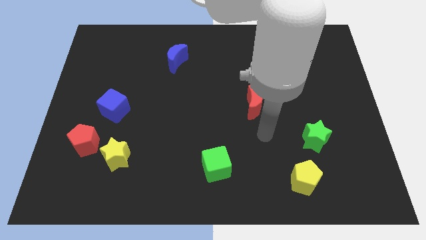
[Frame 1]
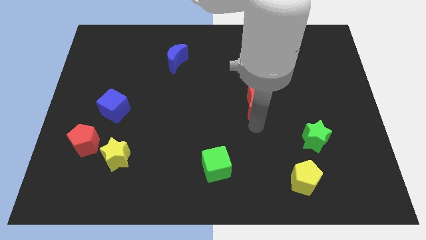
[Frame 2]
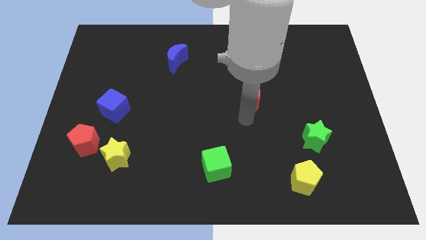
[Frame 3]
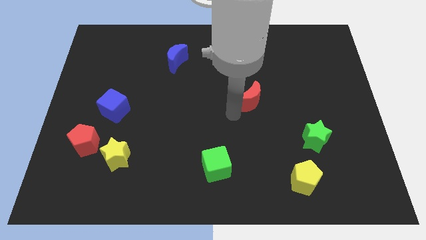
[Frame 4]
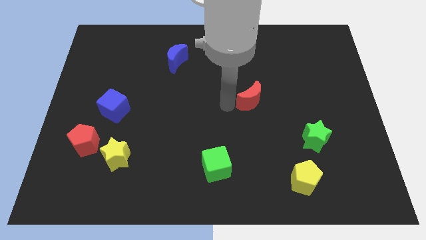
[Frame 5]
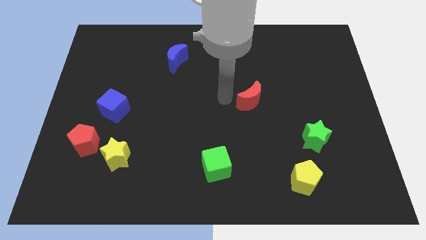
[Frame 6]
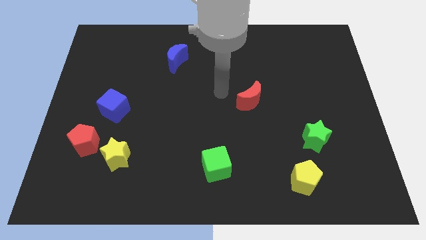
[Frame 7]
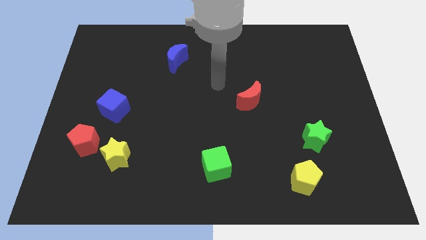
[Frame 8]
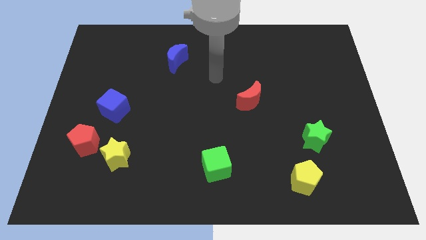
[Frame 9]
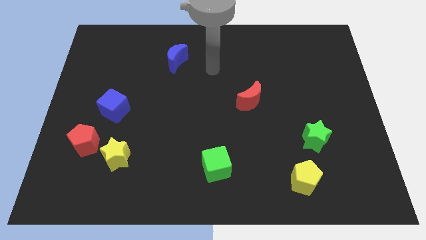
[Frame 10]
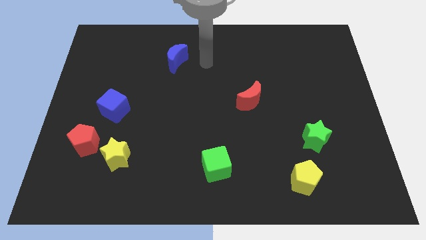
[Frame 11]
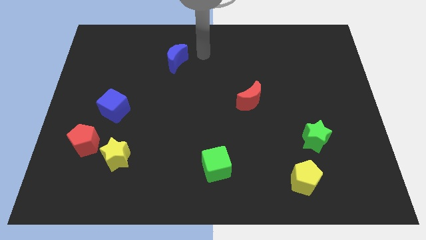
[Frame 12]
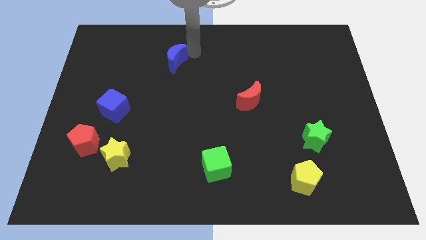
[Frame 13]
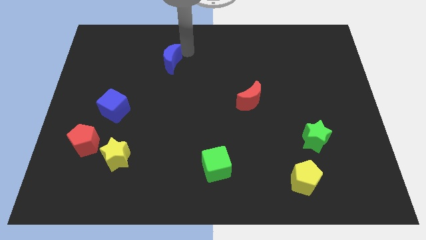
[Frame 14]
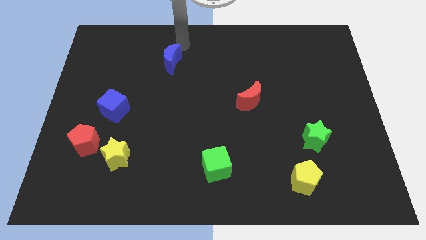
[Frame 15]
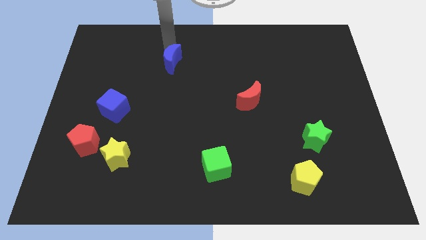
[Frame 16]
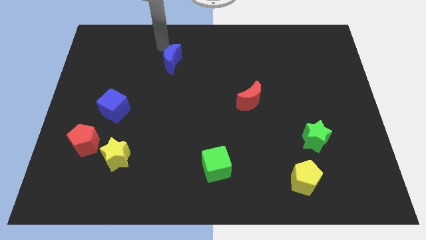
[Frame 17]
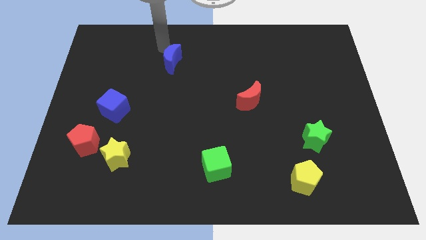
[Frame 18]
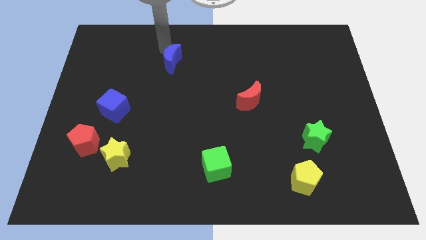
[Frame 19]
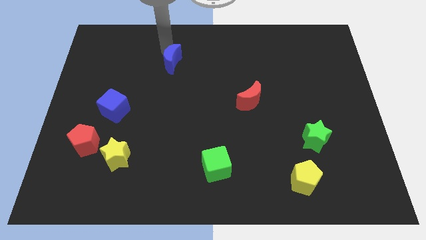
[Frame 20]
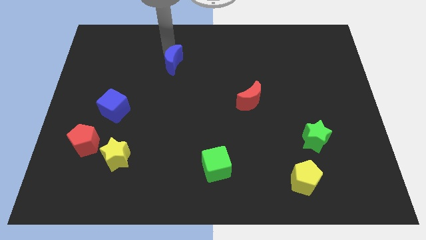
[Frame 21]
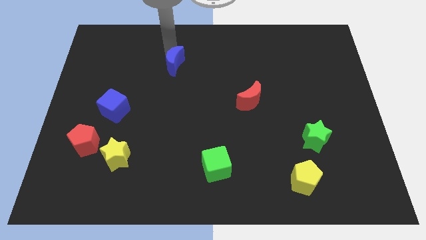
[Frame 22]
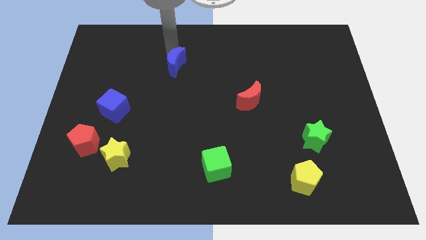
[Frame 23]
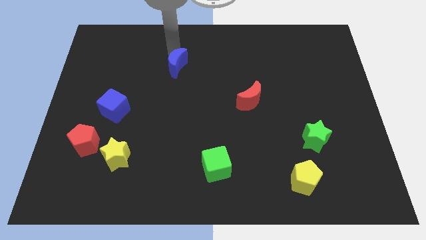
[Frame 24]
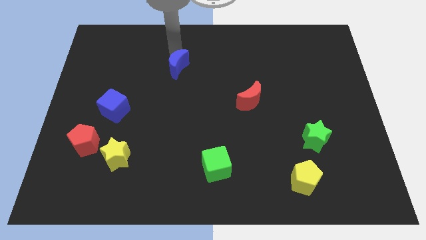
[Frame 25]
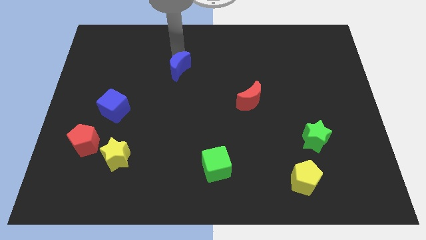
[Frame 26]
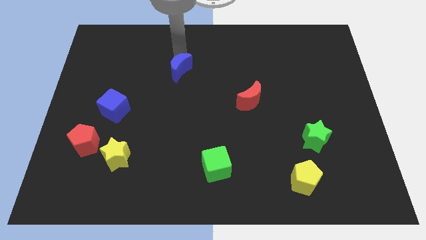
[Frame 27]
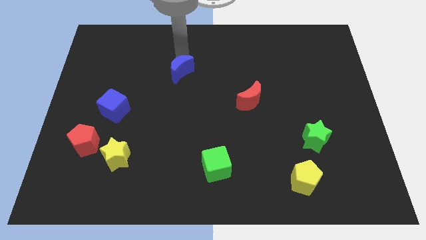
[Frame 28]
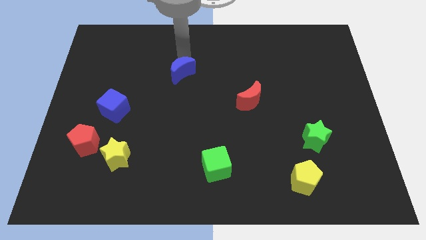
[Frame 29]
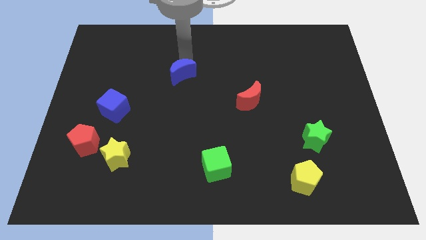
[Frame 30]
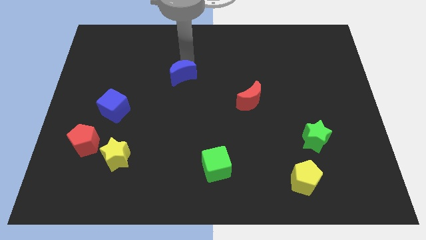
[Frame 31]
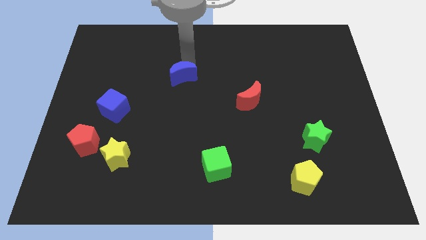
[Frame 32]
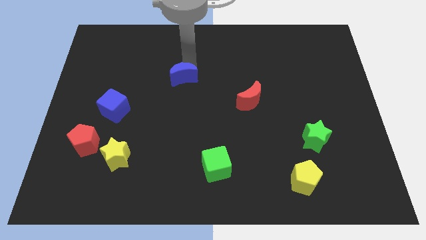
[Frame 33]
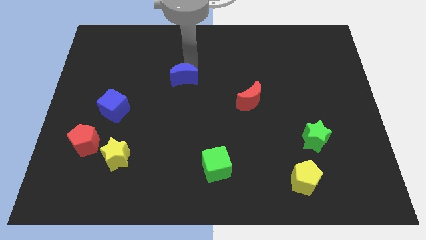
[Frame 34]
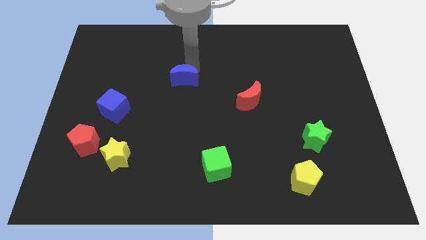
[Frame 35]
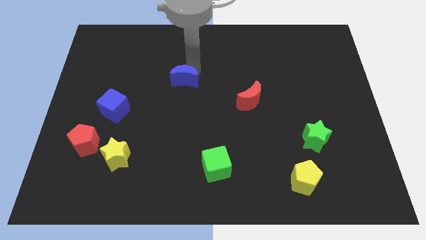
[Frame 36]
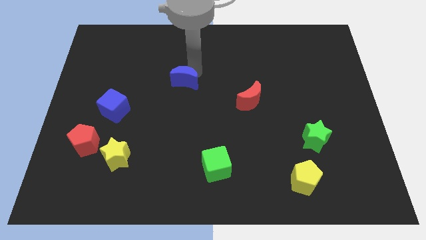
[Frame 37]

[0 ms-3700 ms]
move the blue moon down a bit

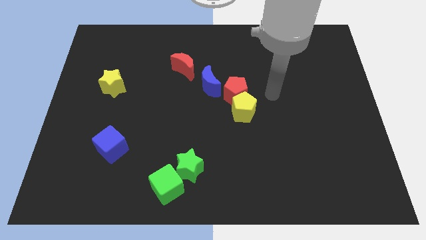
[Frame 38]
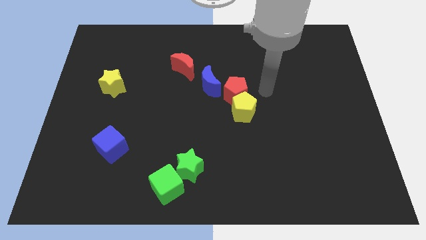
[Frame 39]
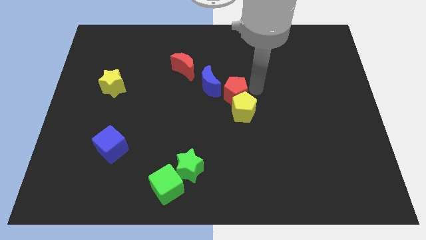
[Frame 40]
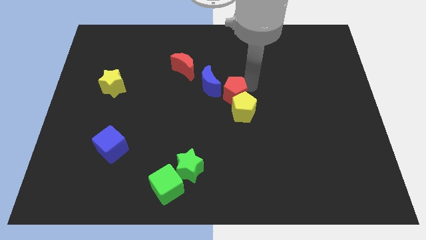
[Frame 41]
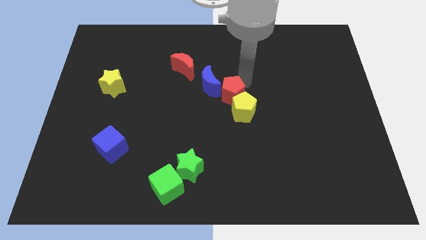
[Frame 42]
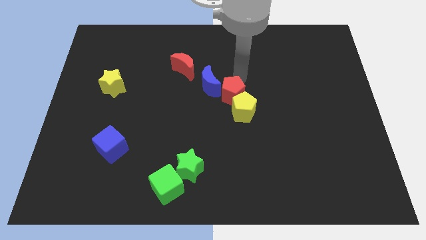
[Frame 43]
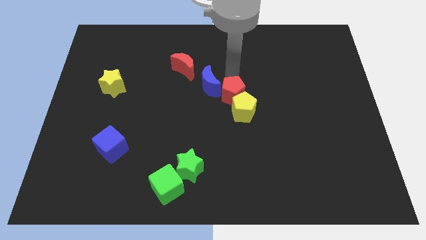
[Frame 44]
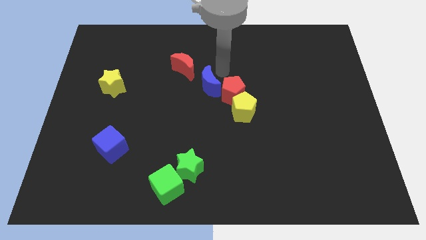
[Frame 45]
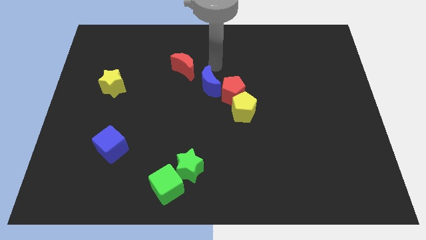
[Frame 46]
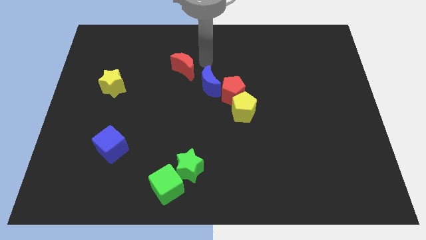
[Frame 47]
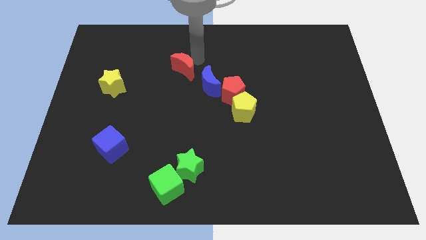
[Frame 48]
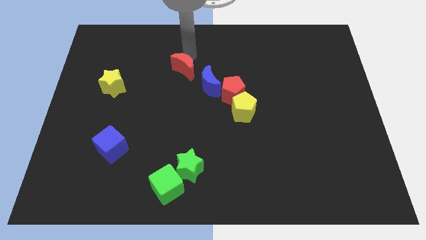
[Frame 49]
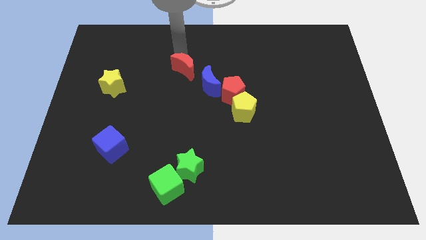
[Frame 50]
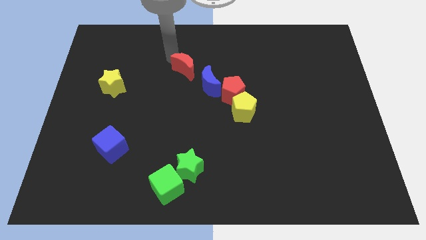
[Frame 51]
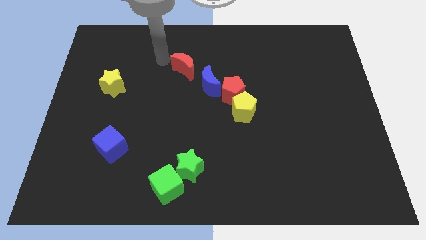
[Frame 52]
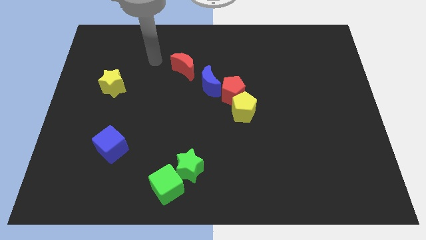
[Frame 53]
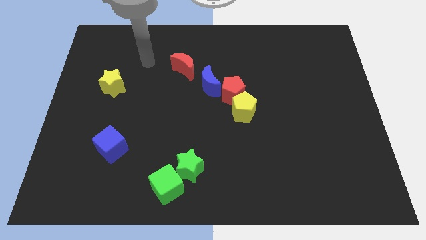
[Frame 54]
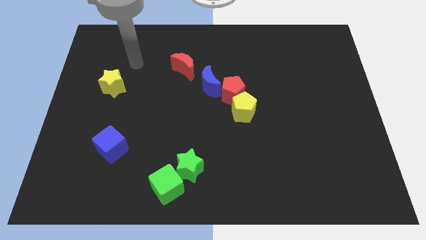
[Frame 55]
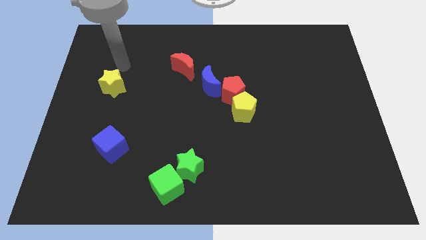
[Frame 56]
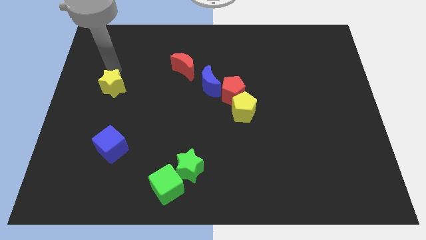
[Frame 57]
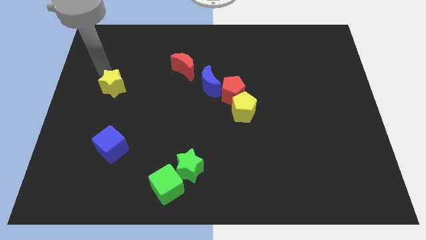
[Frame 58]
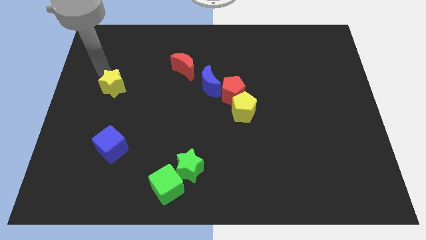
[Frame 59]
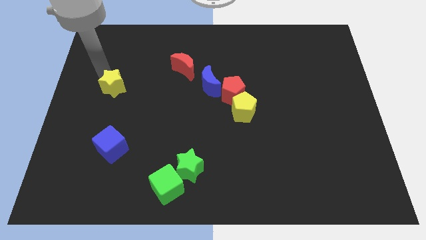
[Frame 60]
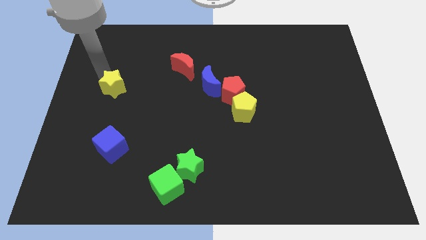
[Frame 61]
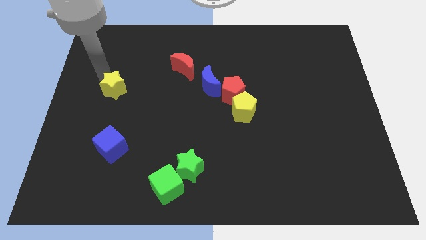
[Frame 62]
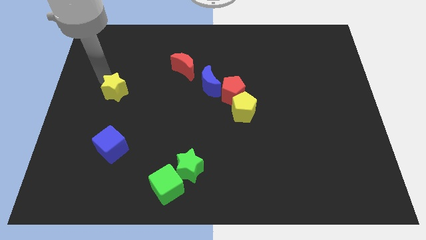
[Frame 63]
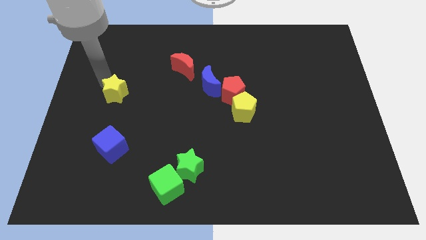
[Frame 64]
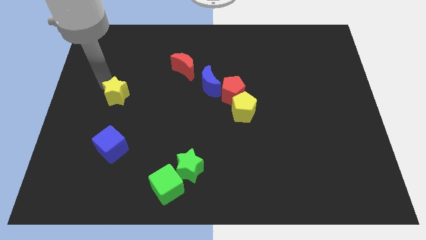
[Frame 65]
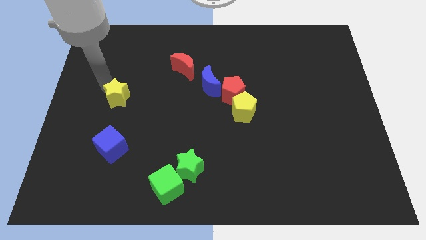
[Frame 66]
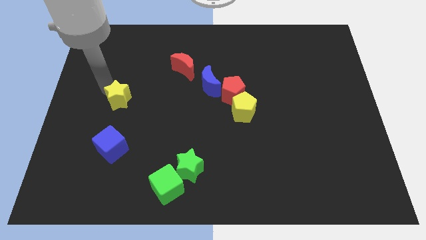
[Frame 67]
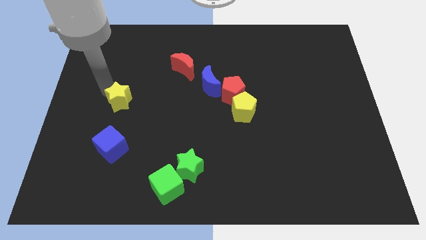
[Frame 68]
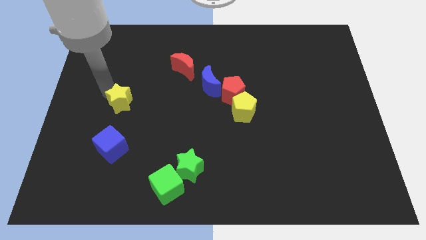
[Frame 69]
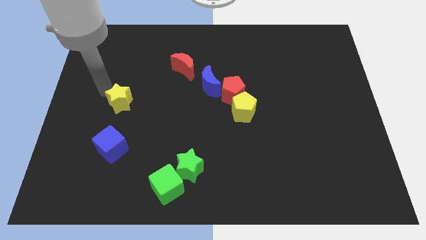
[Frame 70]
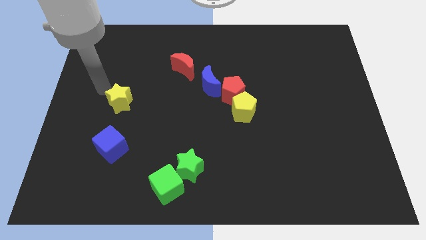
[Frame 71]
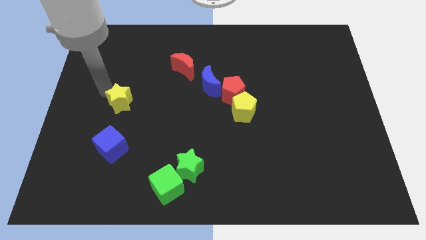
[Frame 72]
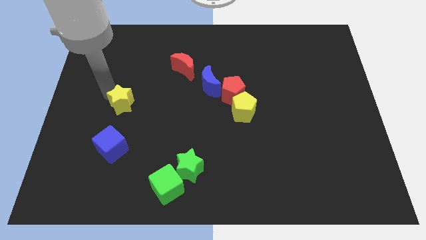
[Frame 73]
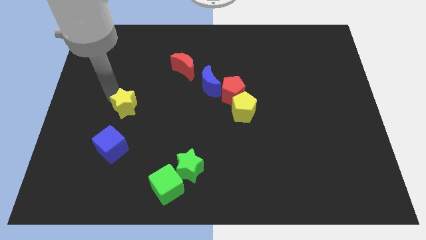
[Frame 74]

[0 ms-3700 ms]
move the yellow star down and to the right diagonally a bit

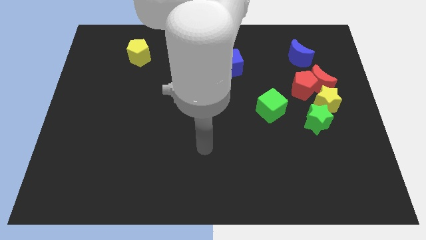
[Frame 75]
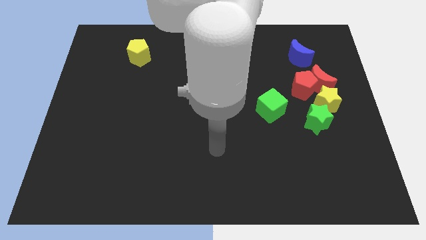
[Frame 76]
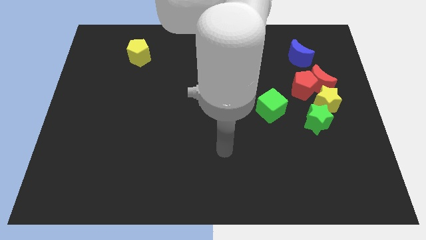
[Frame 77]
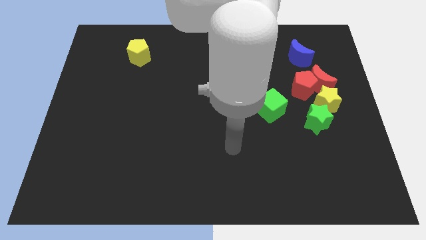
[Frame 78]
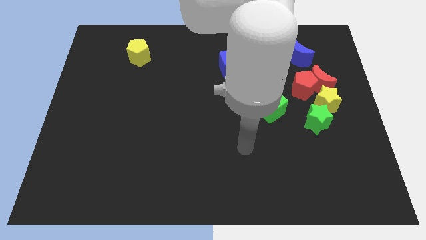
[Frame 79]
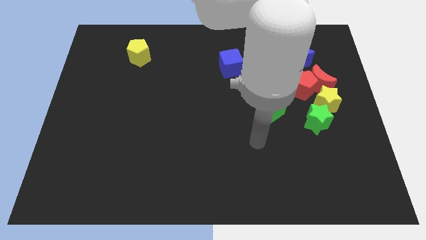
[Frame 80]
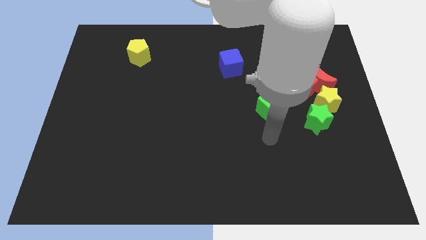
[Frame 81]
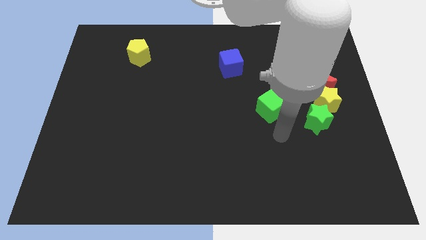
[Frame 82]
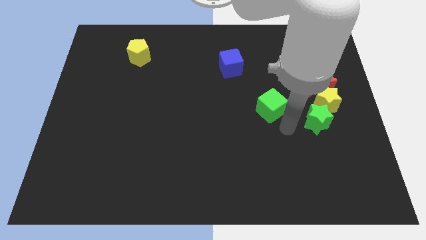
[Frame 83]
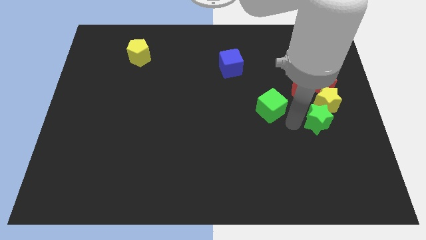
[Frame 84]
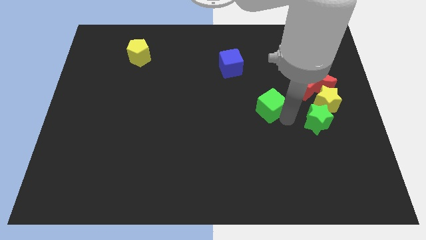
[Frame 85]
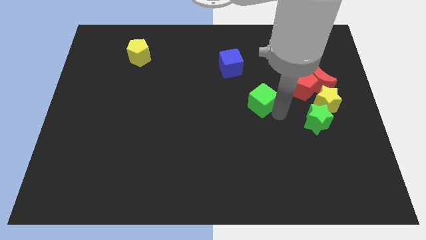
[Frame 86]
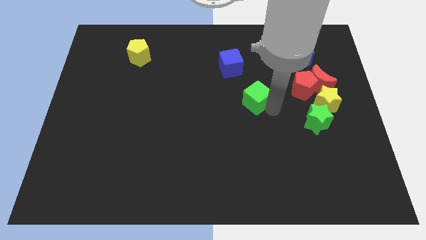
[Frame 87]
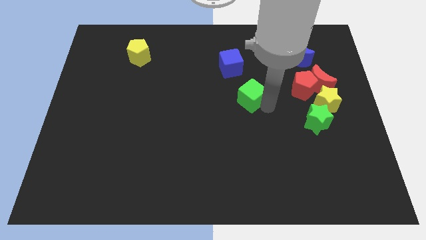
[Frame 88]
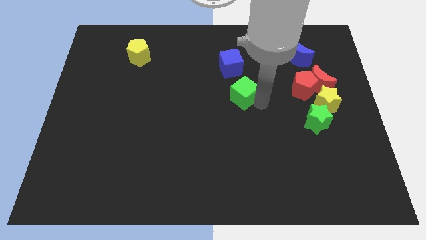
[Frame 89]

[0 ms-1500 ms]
slightly move the green cube diagonally upwards and left
